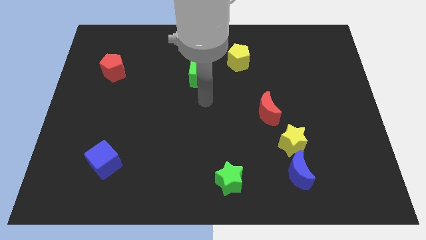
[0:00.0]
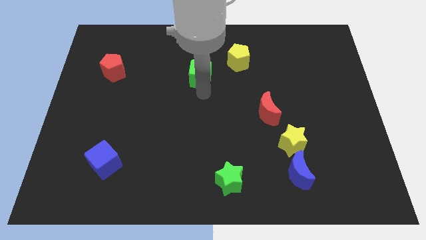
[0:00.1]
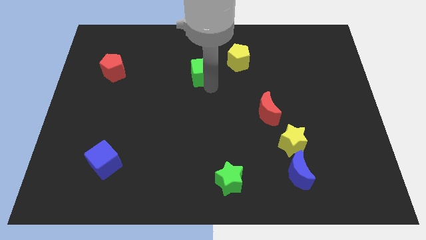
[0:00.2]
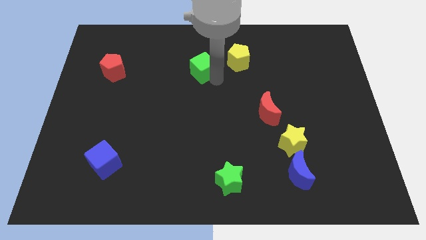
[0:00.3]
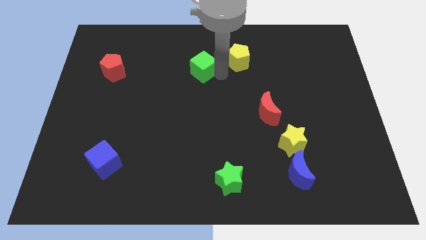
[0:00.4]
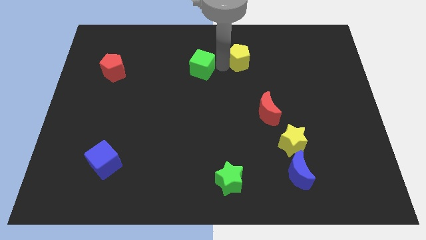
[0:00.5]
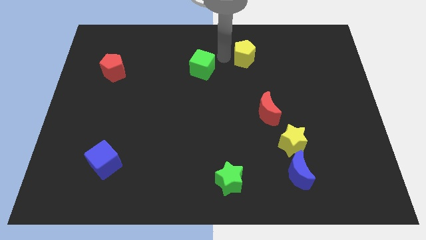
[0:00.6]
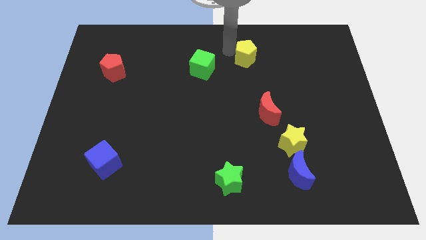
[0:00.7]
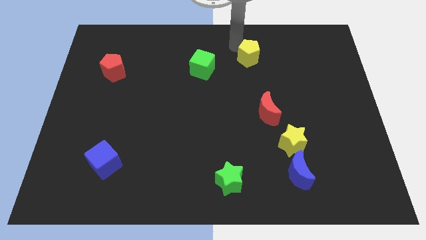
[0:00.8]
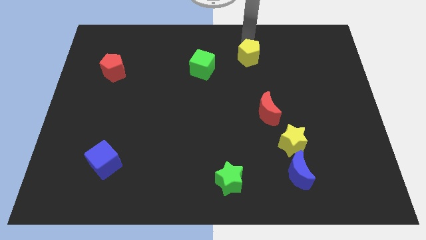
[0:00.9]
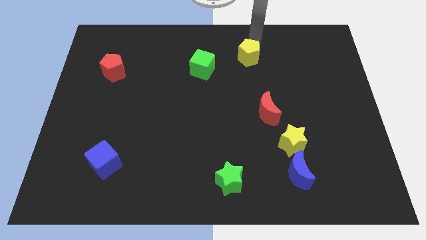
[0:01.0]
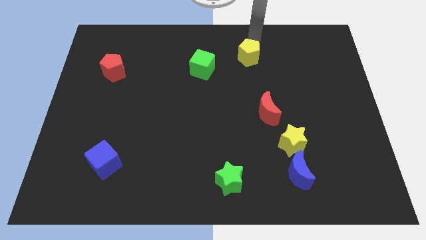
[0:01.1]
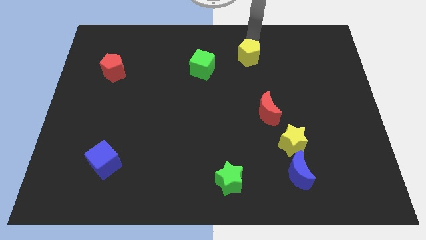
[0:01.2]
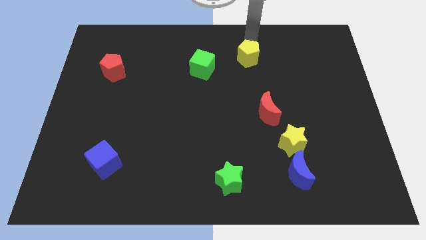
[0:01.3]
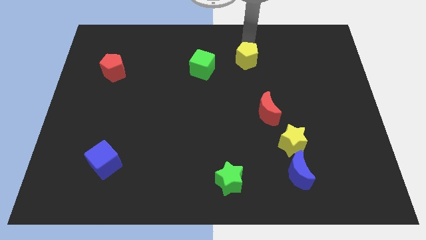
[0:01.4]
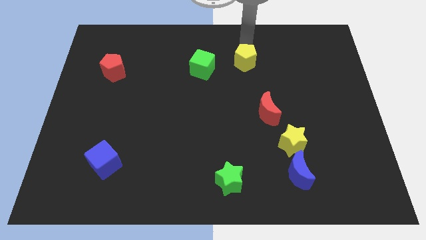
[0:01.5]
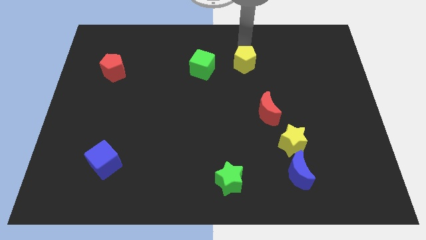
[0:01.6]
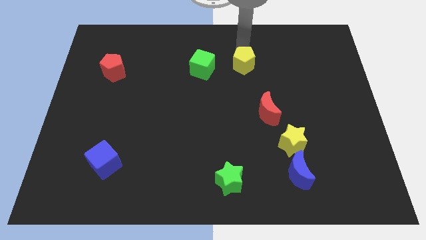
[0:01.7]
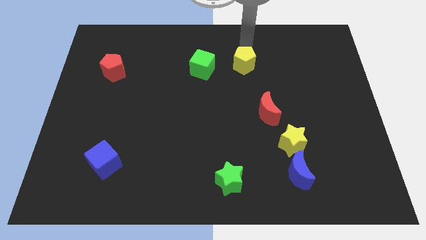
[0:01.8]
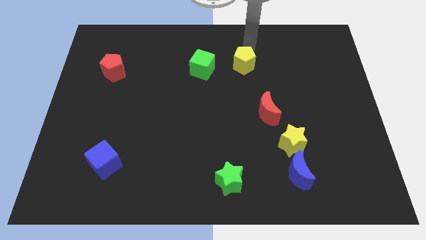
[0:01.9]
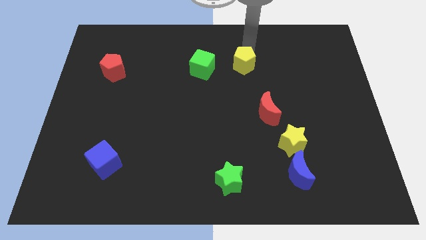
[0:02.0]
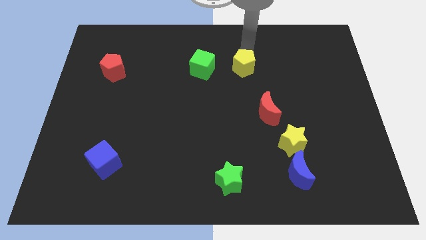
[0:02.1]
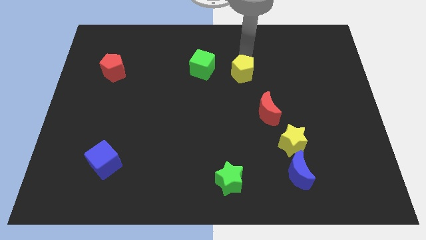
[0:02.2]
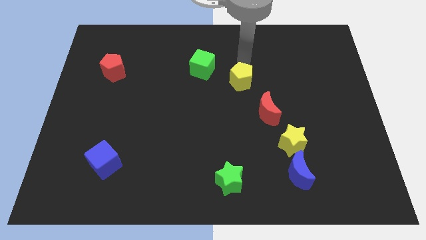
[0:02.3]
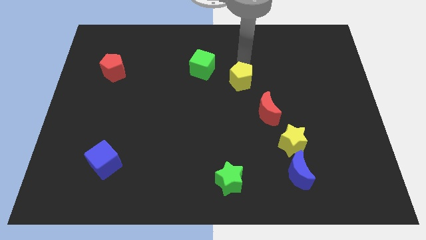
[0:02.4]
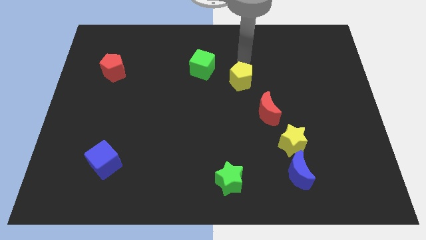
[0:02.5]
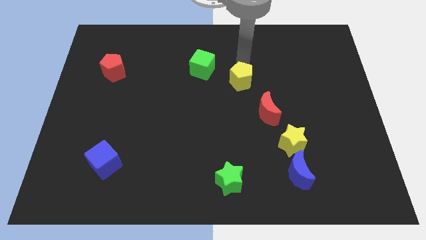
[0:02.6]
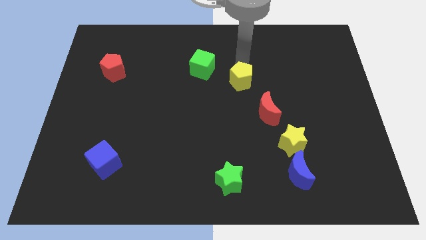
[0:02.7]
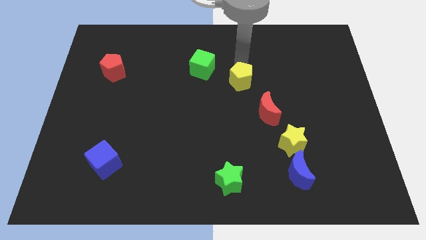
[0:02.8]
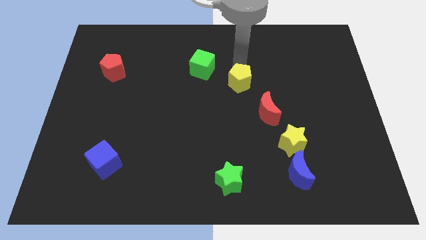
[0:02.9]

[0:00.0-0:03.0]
move the yellow pentagon down slightly

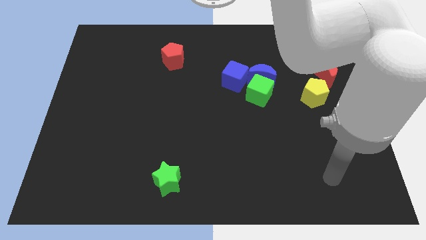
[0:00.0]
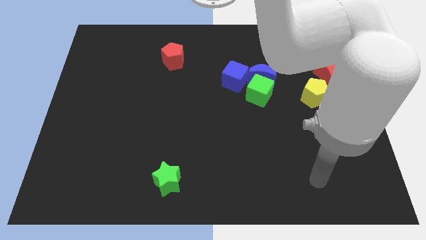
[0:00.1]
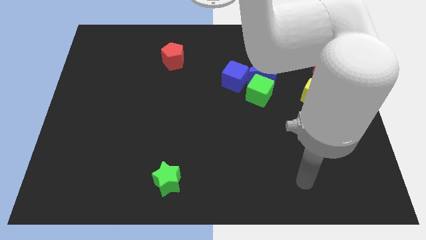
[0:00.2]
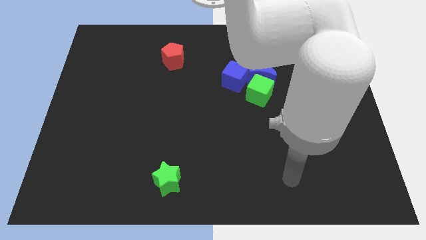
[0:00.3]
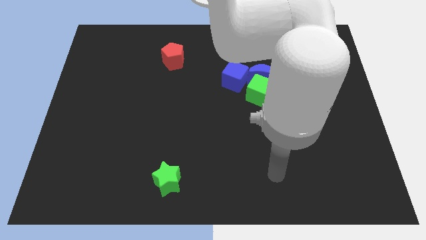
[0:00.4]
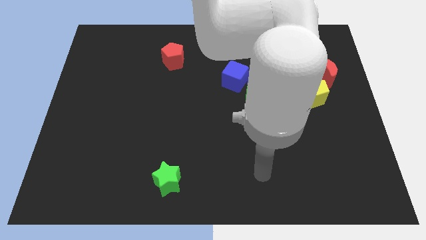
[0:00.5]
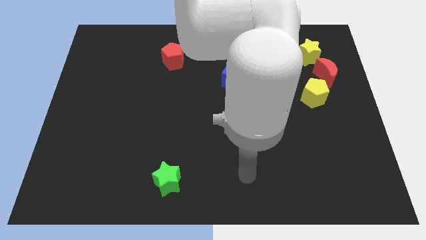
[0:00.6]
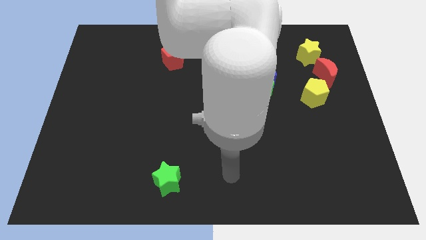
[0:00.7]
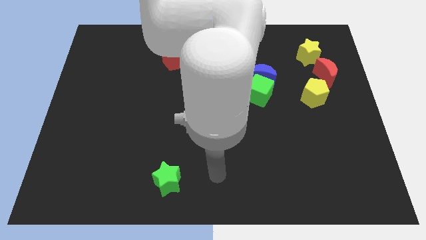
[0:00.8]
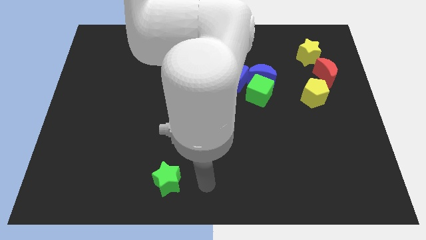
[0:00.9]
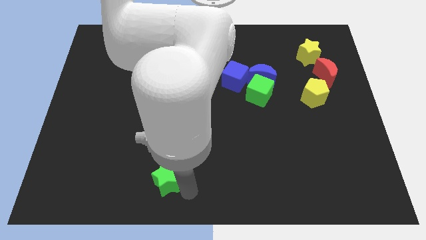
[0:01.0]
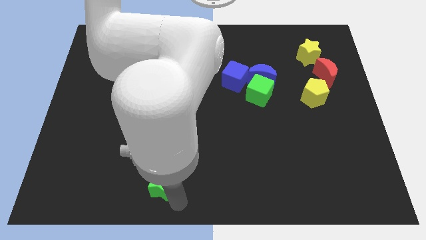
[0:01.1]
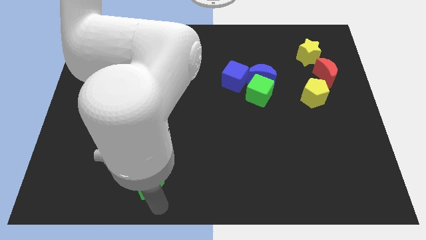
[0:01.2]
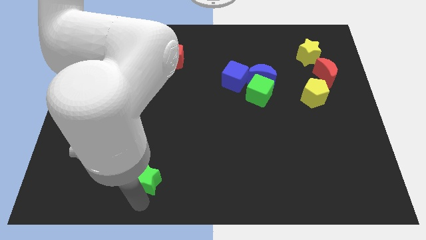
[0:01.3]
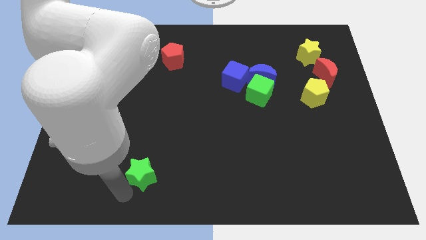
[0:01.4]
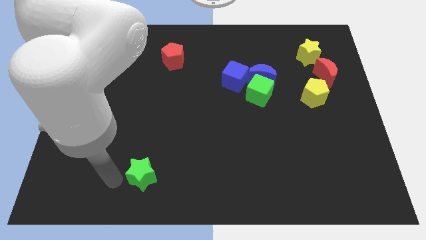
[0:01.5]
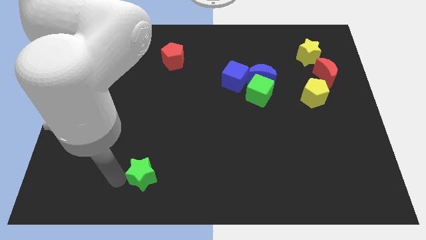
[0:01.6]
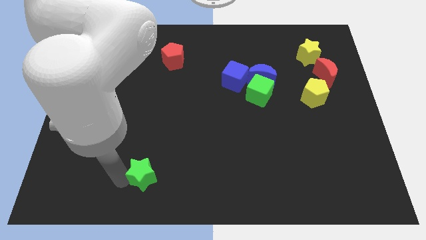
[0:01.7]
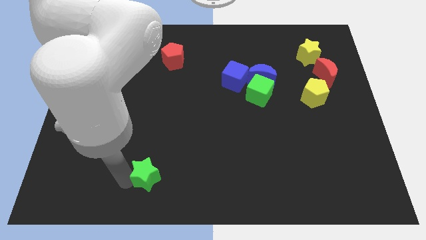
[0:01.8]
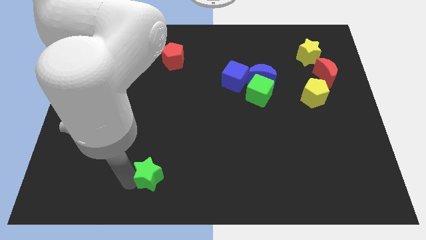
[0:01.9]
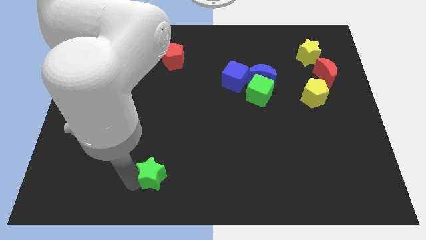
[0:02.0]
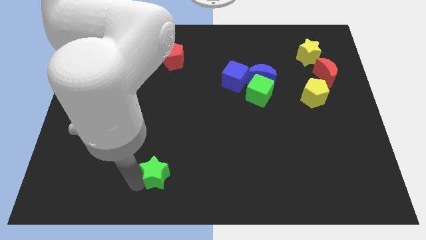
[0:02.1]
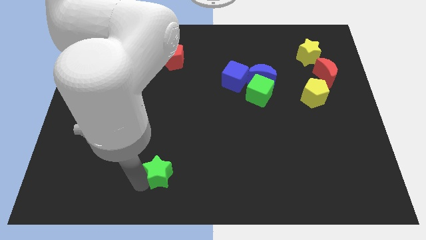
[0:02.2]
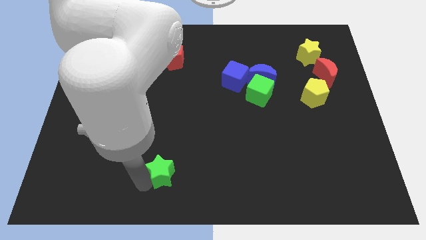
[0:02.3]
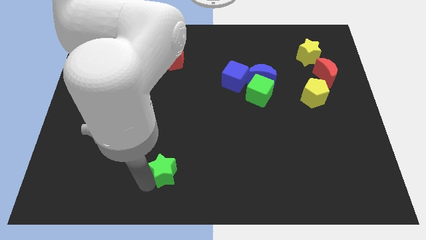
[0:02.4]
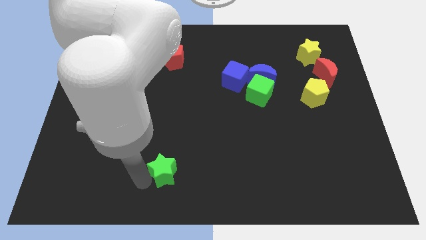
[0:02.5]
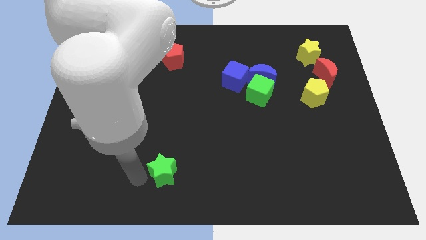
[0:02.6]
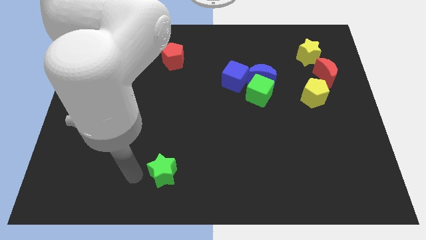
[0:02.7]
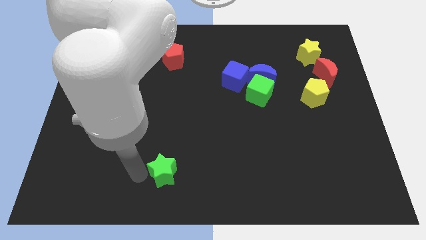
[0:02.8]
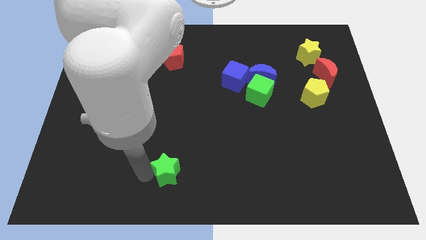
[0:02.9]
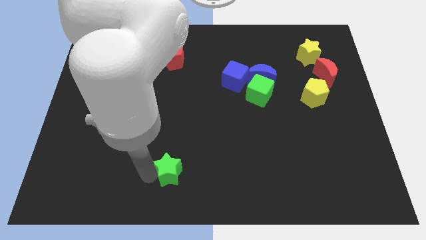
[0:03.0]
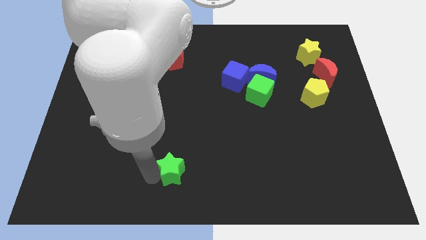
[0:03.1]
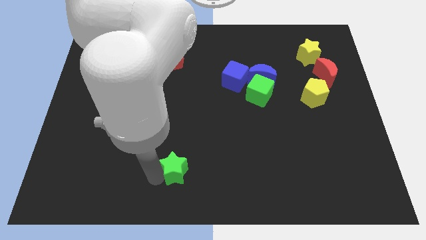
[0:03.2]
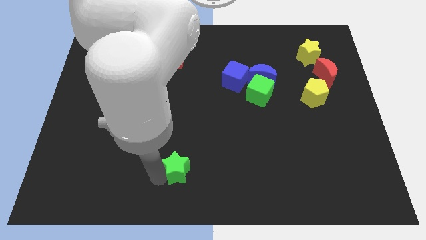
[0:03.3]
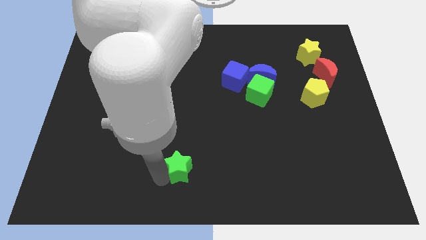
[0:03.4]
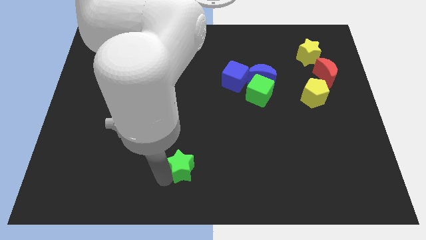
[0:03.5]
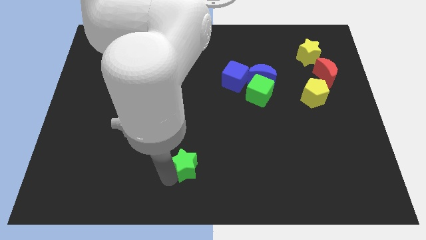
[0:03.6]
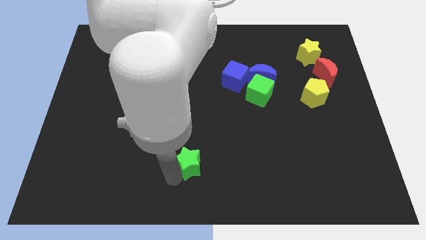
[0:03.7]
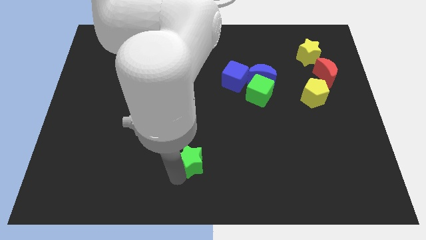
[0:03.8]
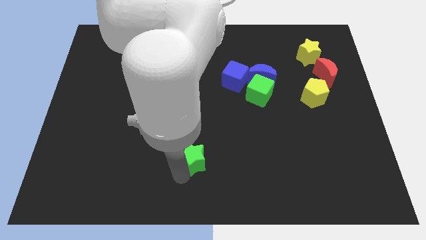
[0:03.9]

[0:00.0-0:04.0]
slightly move the green star up and then to the right

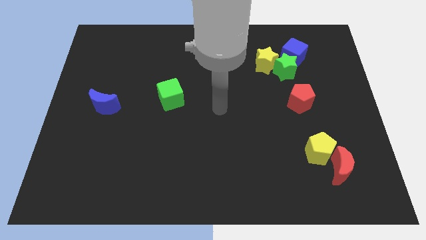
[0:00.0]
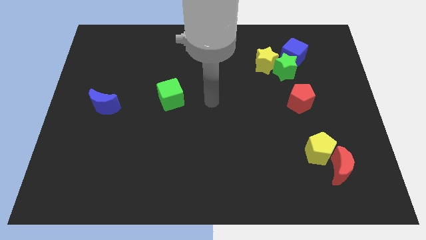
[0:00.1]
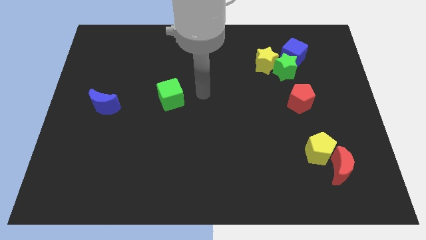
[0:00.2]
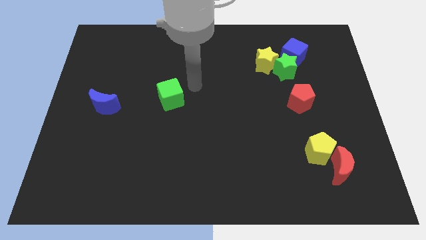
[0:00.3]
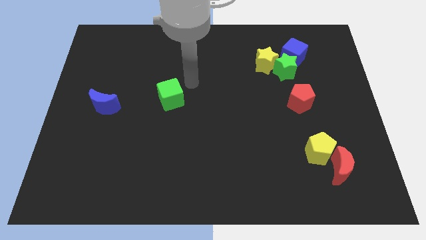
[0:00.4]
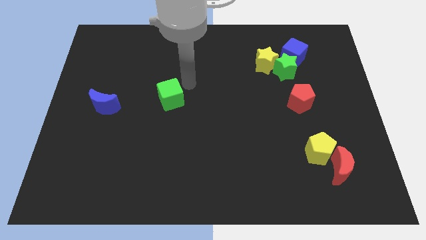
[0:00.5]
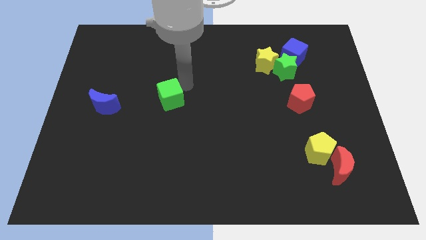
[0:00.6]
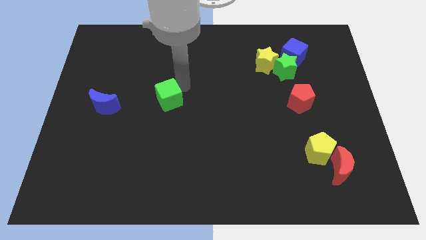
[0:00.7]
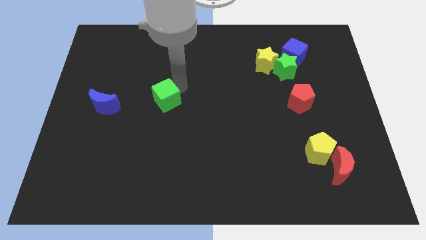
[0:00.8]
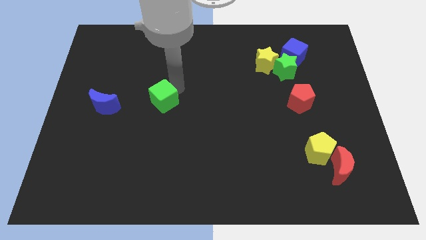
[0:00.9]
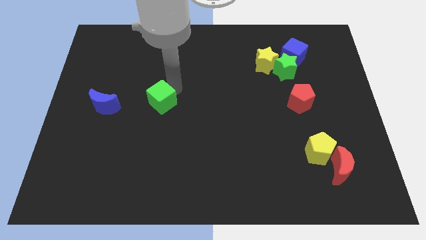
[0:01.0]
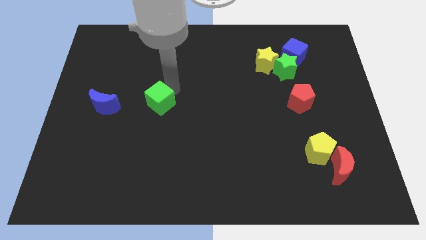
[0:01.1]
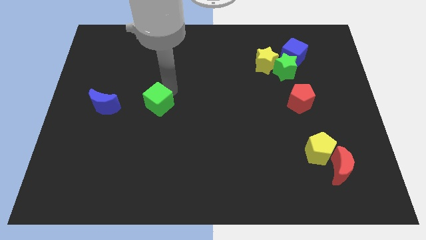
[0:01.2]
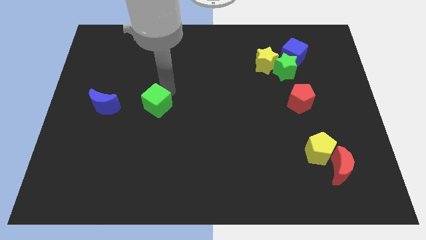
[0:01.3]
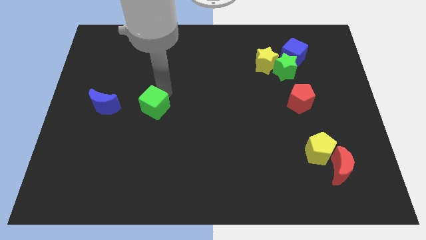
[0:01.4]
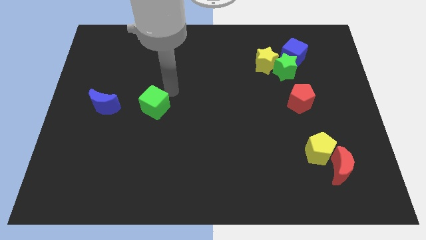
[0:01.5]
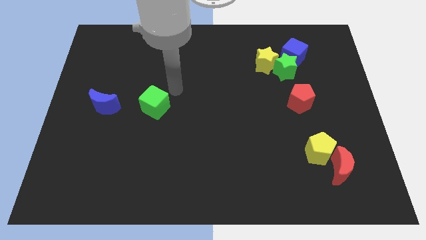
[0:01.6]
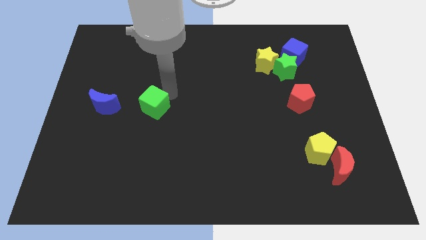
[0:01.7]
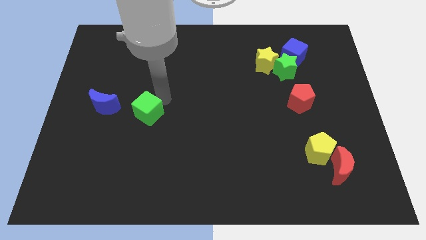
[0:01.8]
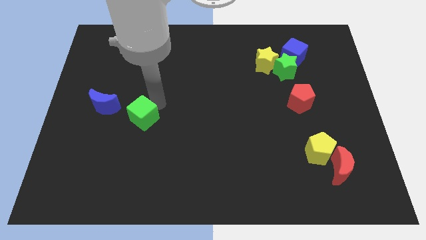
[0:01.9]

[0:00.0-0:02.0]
slide the green cube down and then to the left a little
